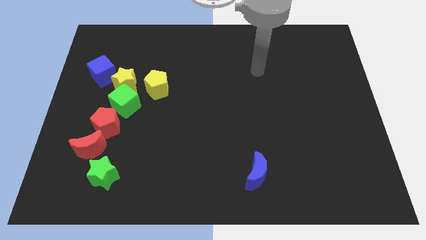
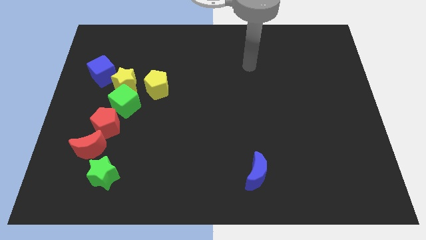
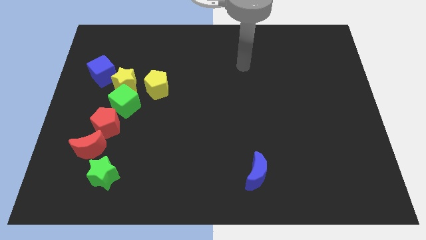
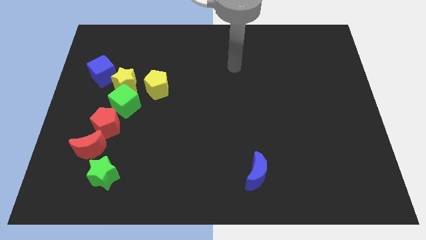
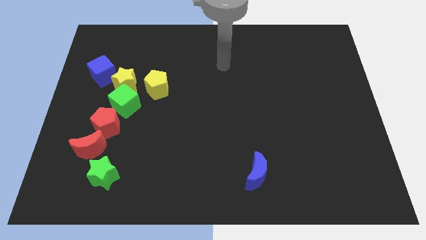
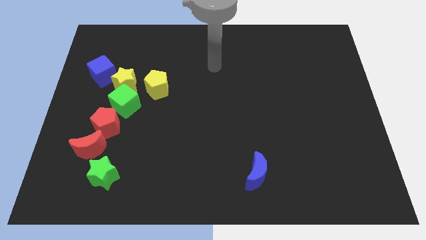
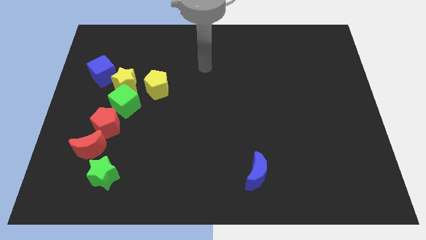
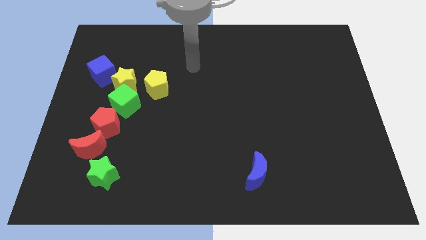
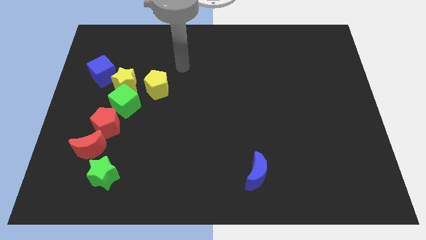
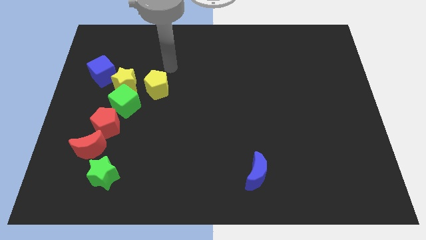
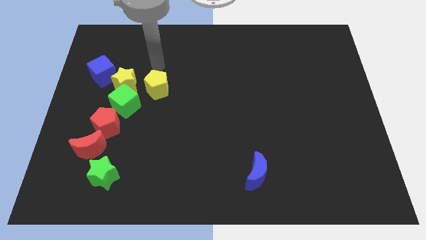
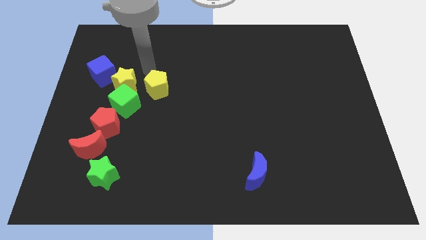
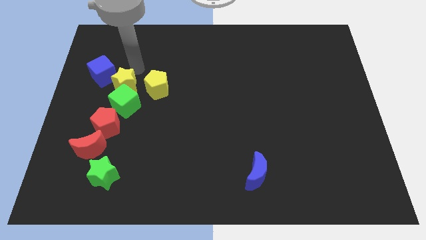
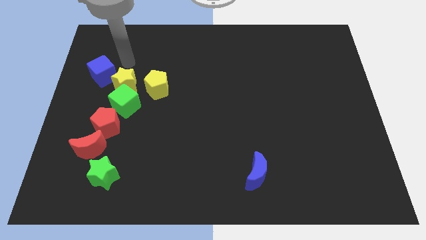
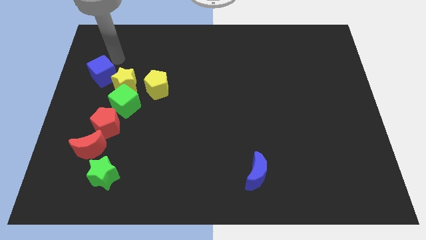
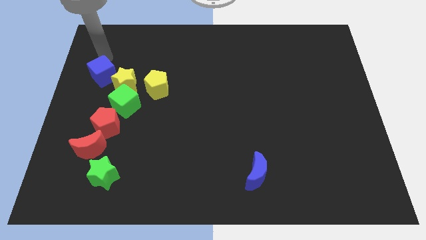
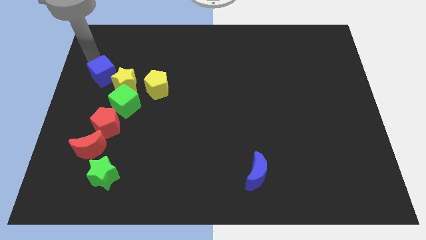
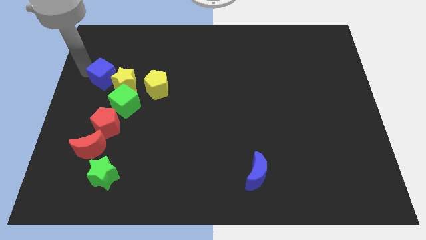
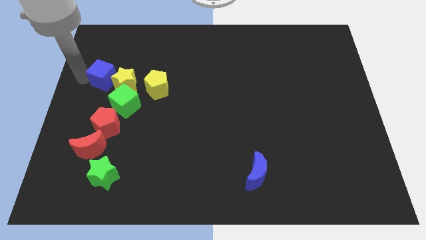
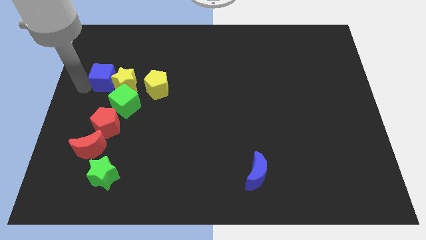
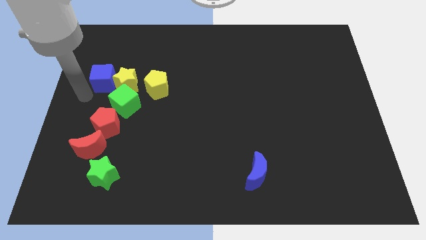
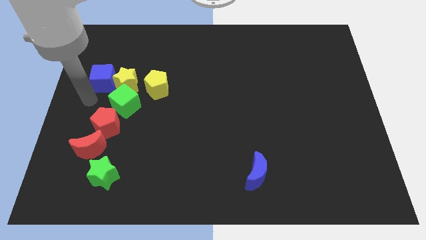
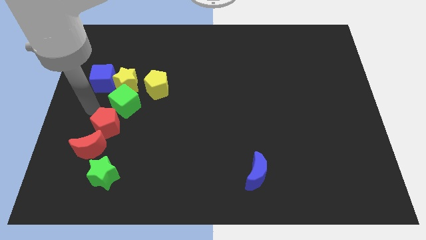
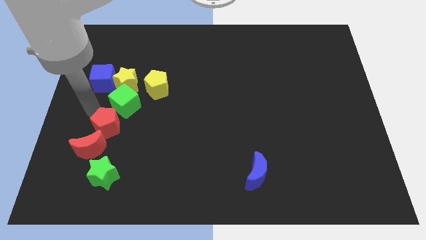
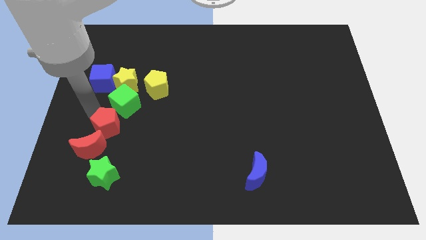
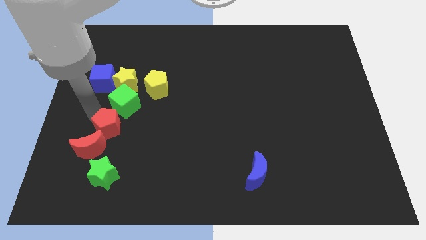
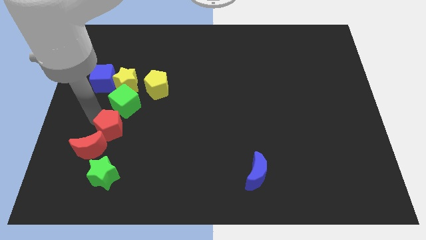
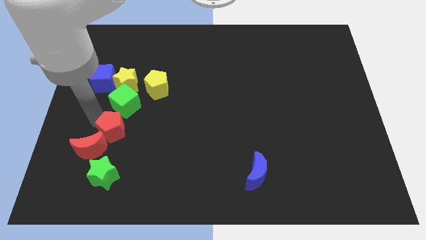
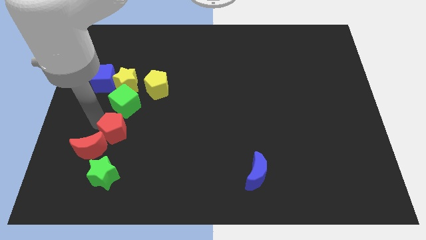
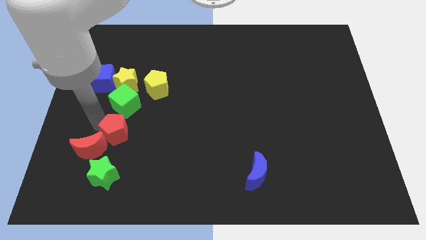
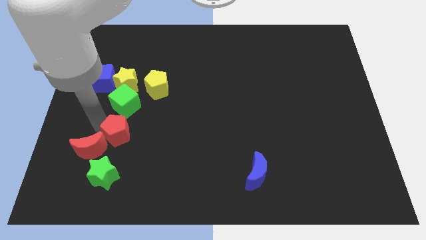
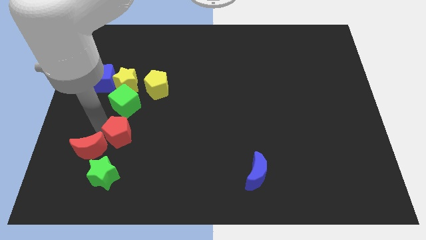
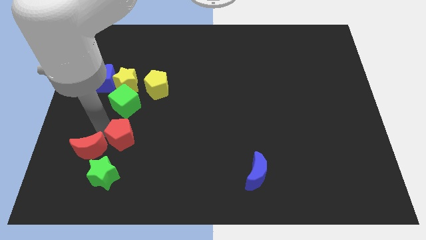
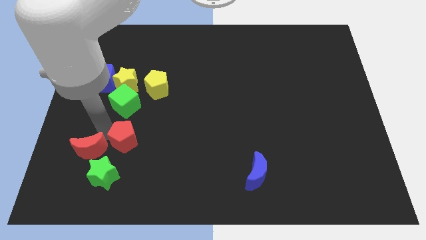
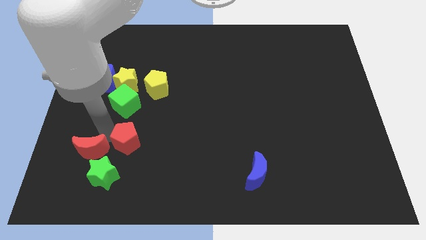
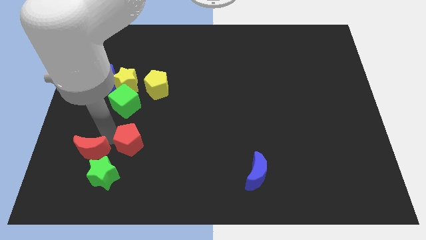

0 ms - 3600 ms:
slightly move the red pentagon downwards and to the right diagonally

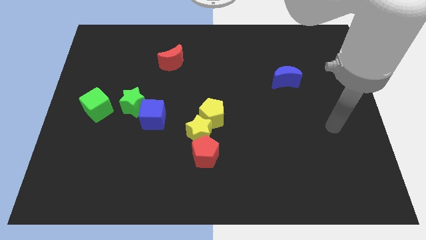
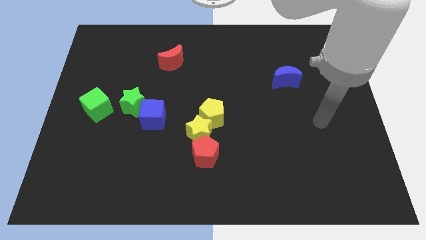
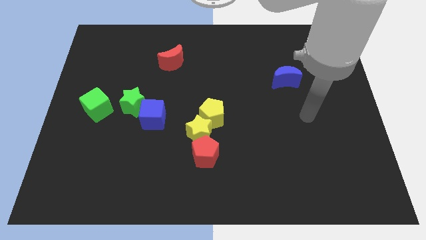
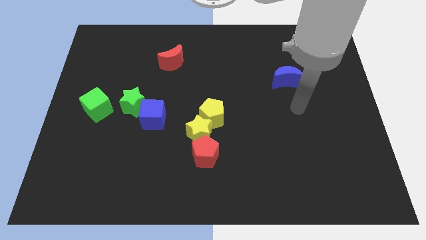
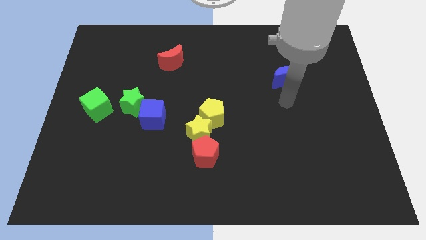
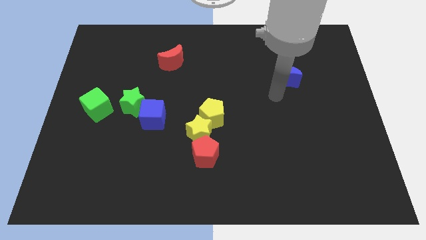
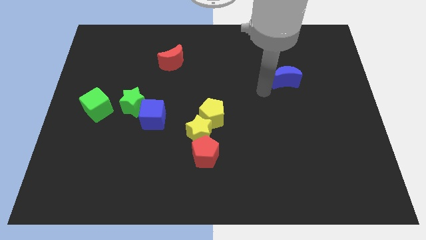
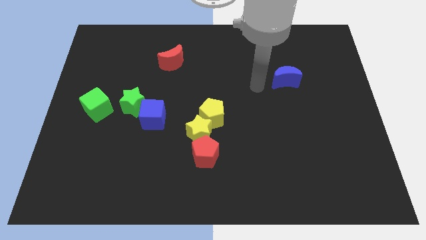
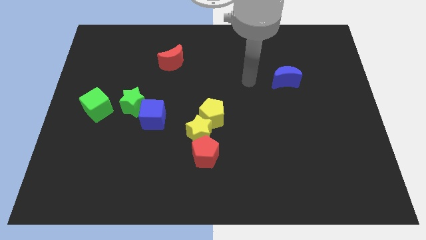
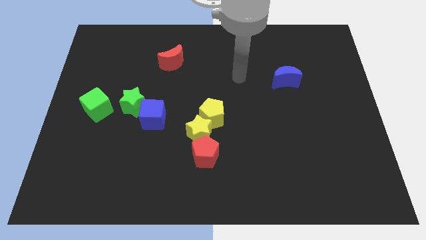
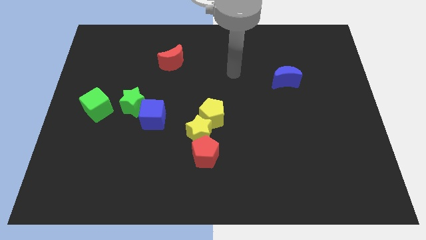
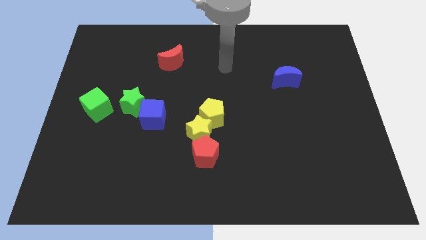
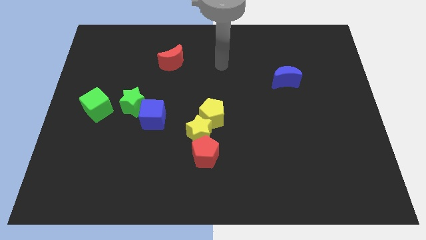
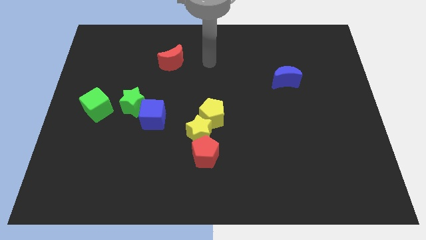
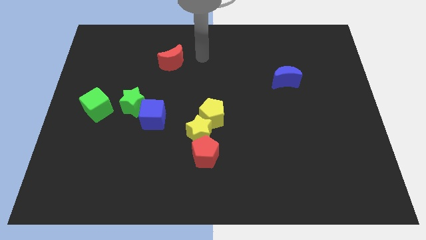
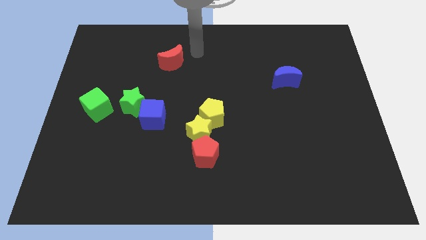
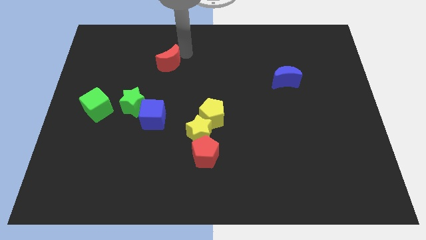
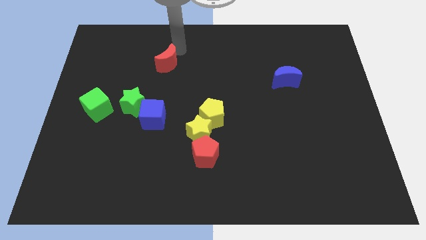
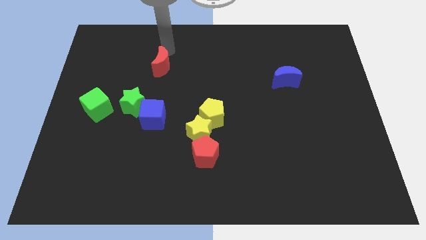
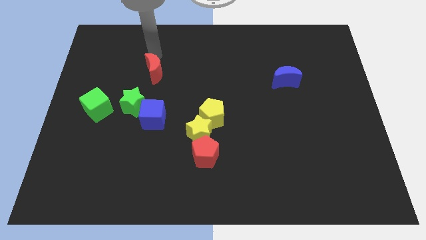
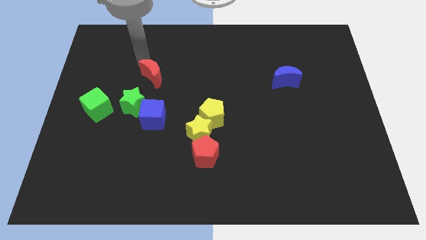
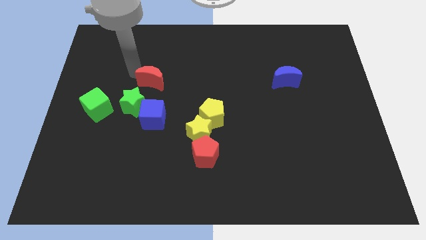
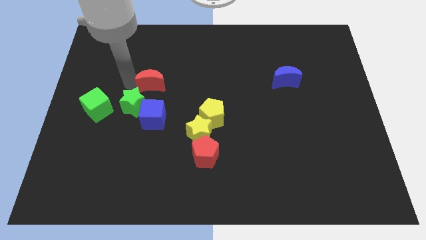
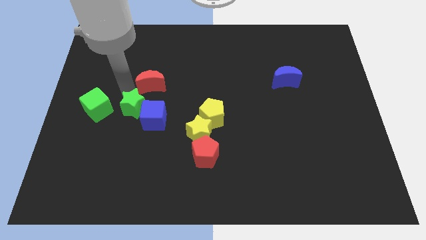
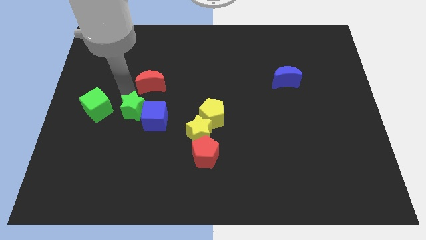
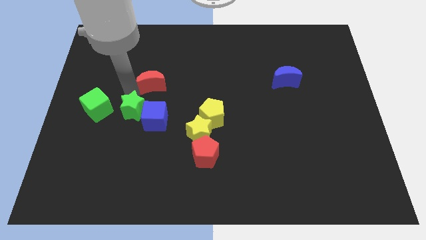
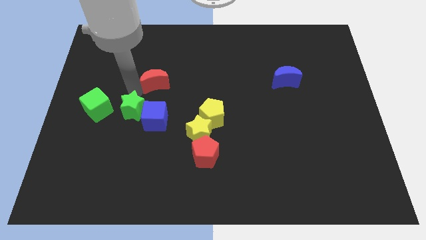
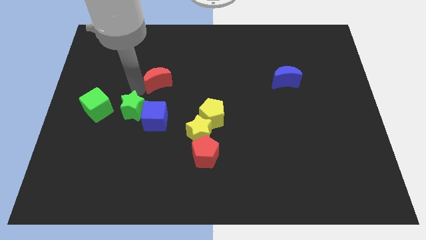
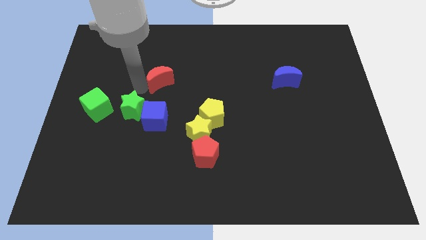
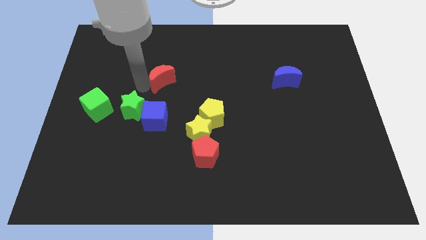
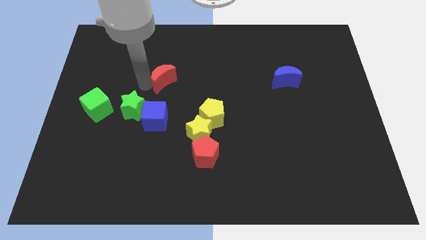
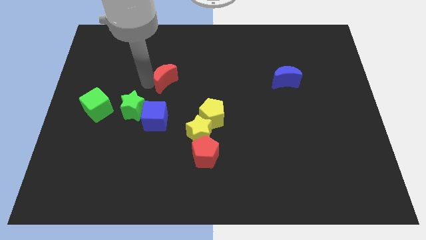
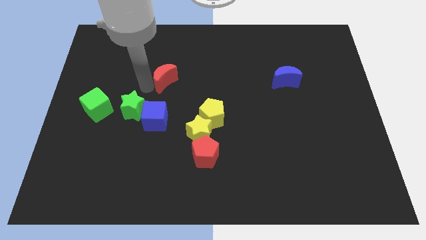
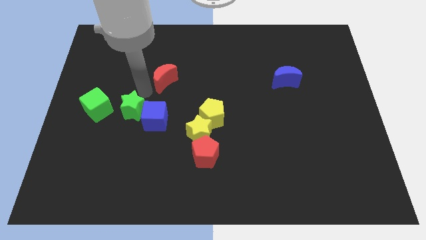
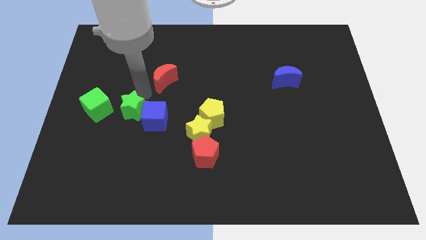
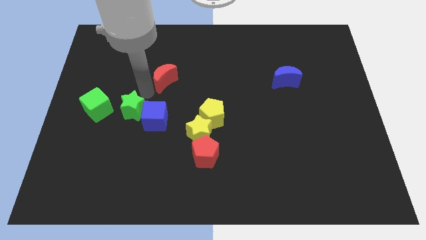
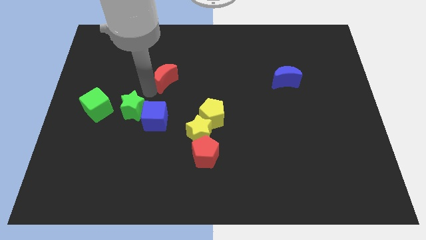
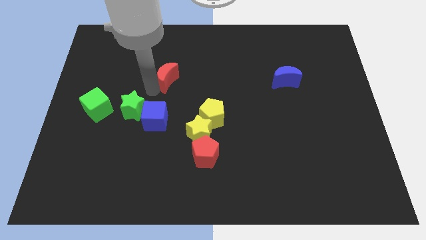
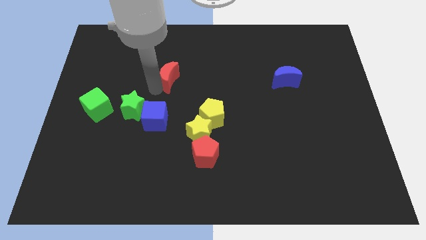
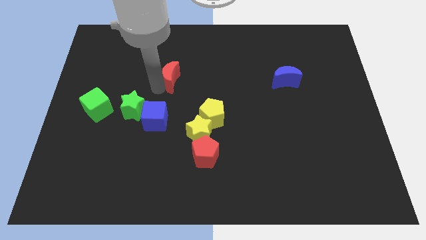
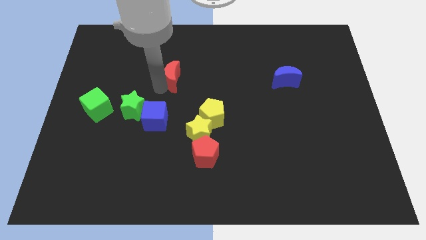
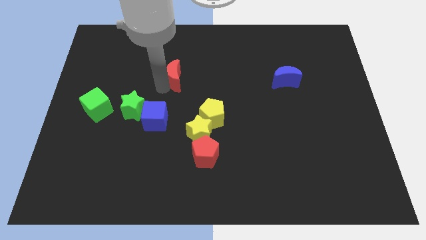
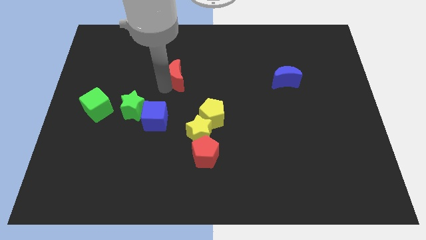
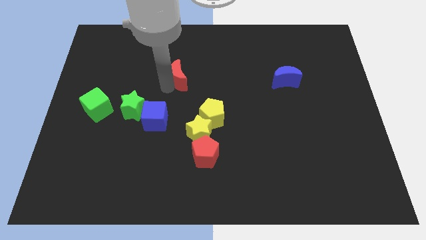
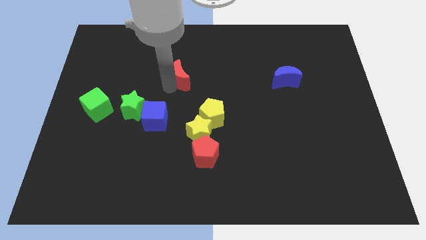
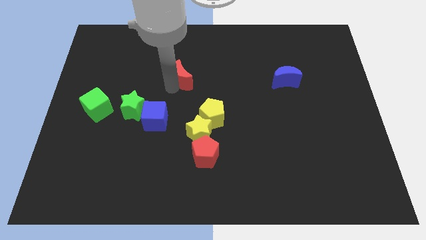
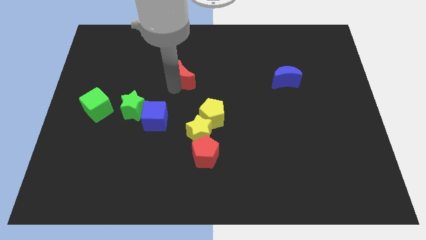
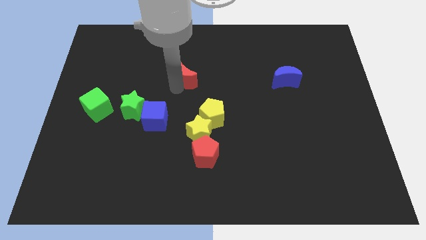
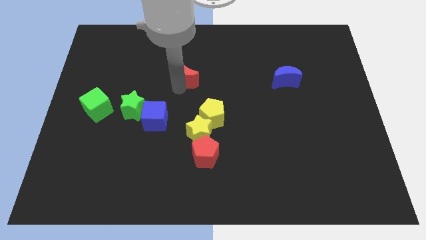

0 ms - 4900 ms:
slide the red moon down and to the right a bit
